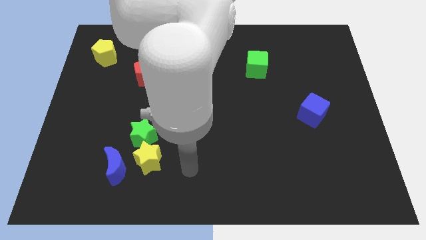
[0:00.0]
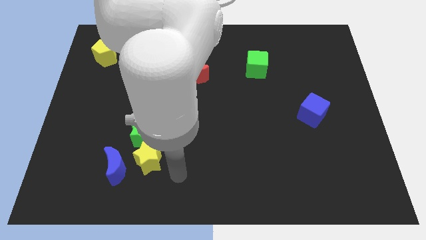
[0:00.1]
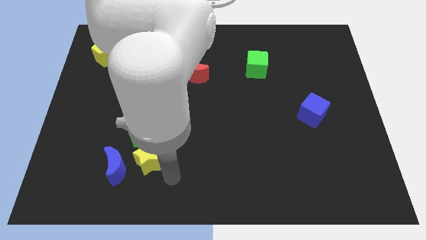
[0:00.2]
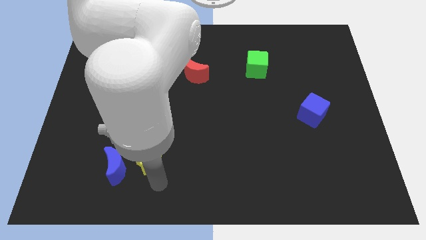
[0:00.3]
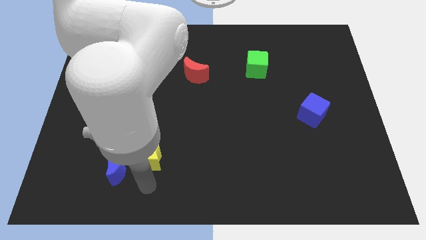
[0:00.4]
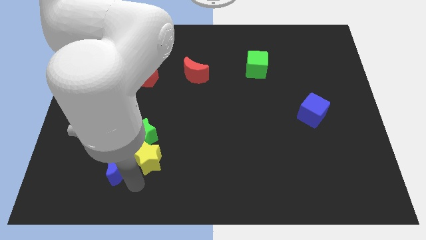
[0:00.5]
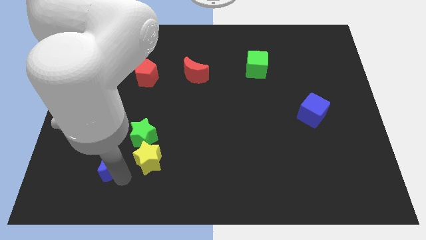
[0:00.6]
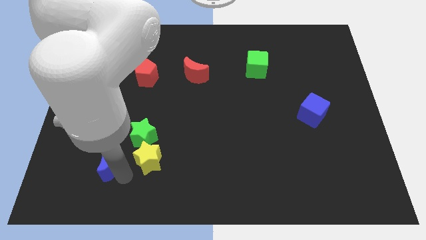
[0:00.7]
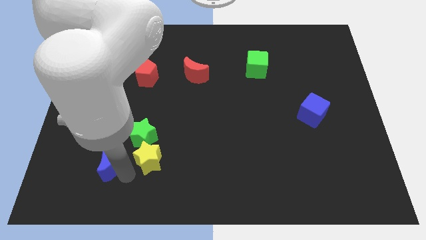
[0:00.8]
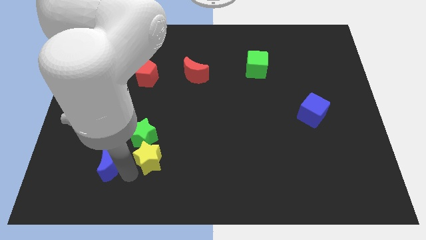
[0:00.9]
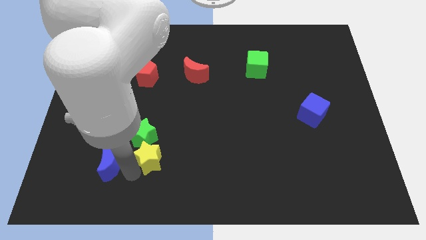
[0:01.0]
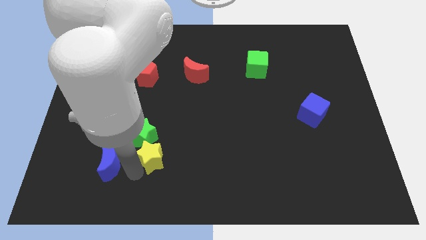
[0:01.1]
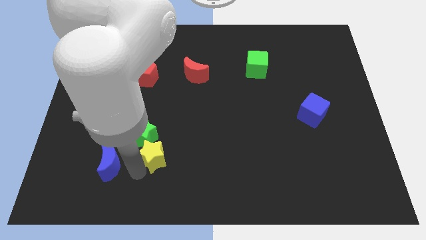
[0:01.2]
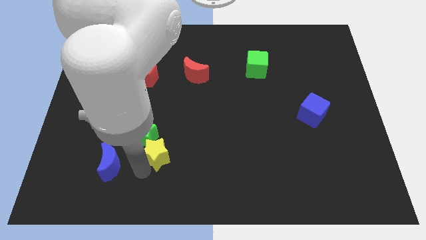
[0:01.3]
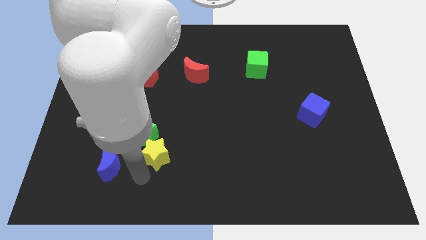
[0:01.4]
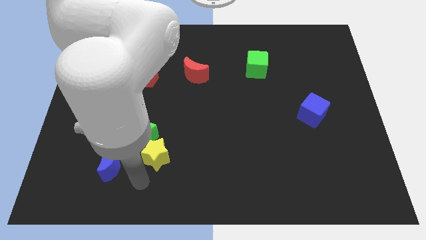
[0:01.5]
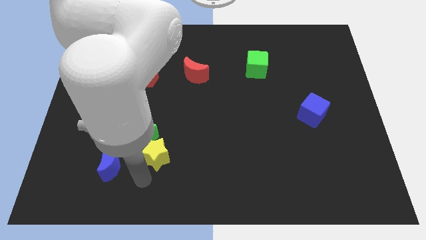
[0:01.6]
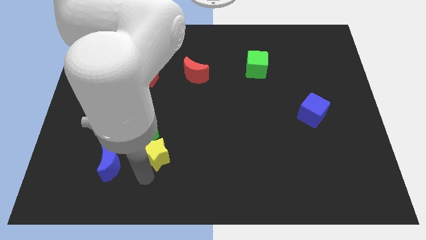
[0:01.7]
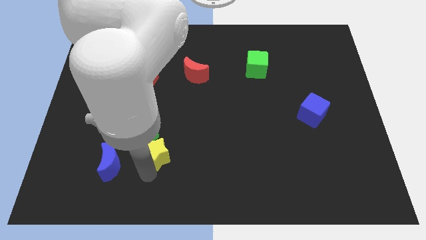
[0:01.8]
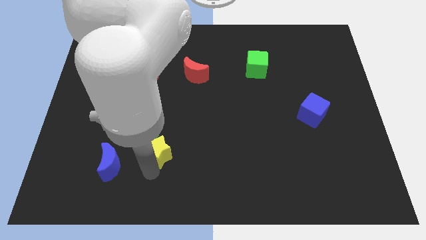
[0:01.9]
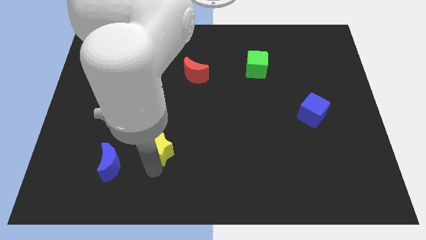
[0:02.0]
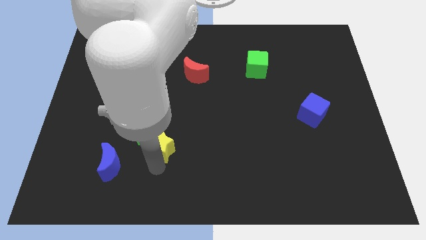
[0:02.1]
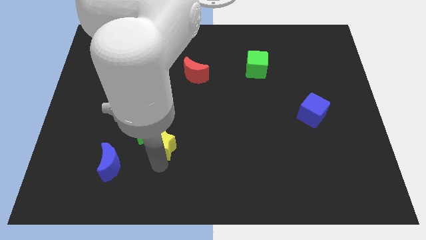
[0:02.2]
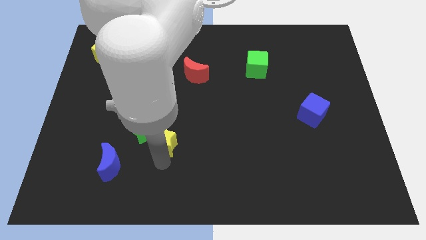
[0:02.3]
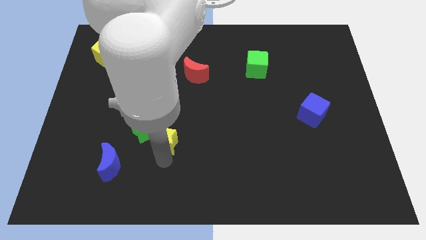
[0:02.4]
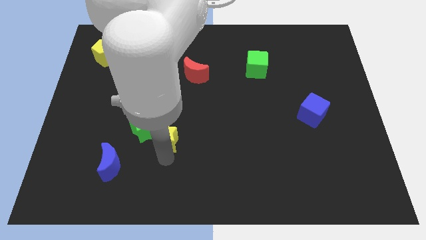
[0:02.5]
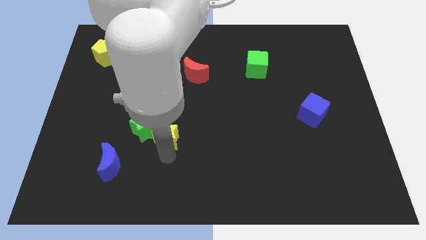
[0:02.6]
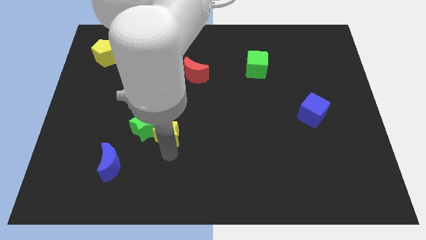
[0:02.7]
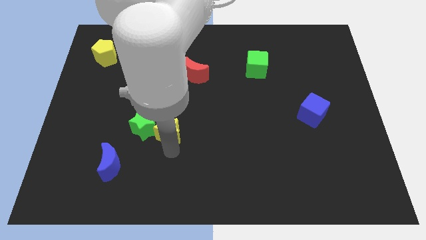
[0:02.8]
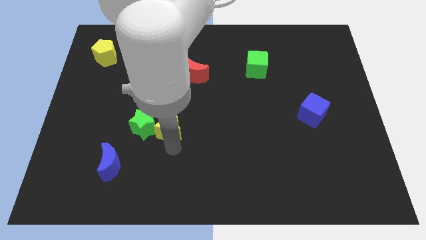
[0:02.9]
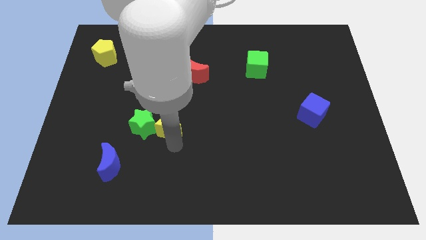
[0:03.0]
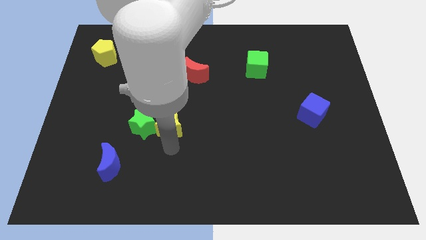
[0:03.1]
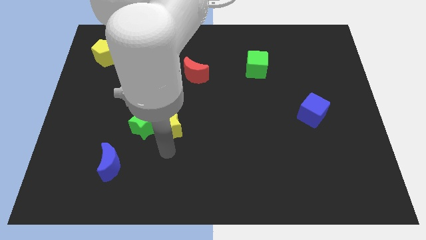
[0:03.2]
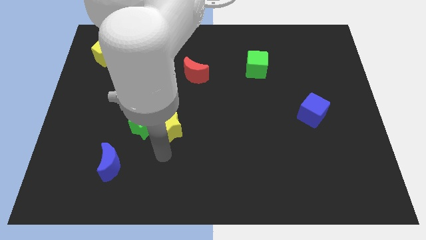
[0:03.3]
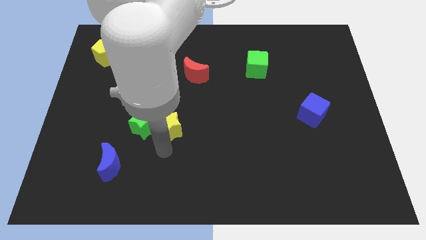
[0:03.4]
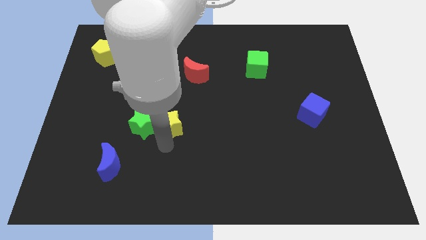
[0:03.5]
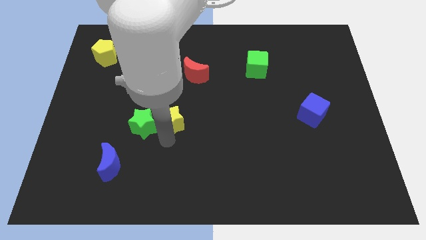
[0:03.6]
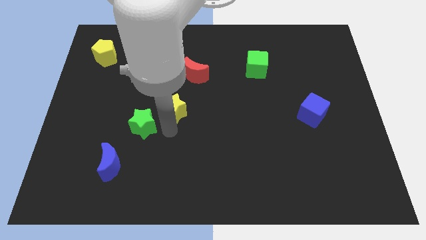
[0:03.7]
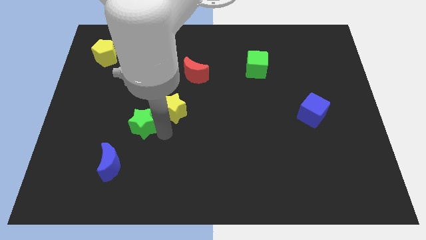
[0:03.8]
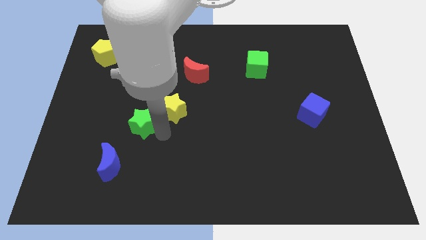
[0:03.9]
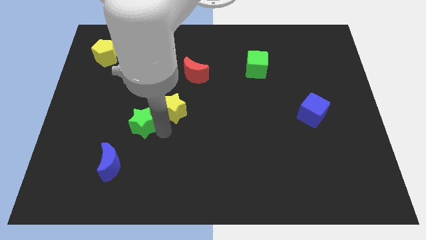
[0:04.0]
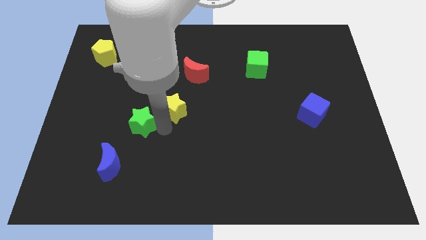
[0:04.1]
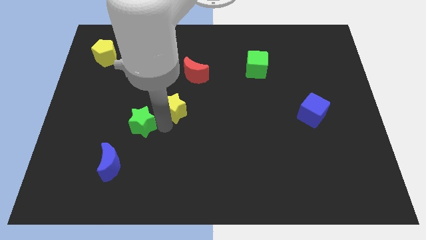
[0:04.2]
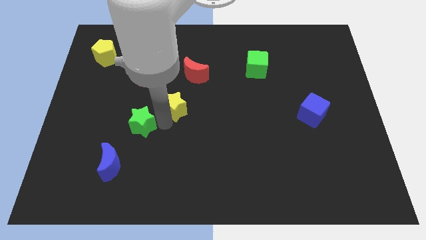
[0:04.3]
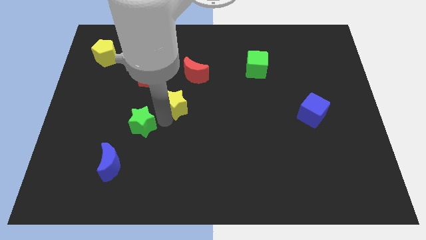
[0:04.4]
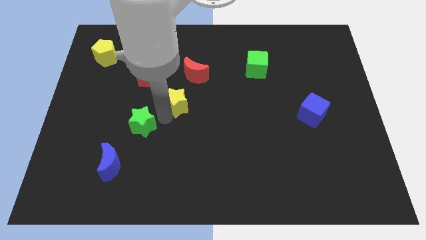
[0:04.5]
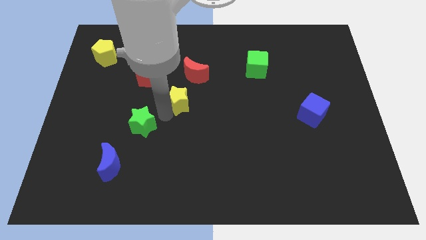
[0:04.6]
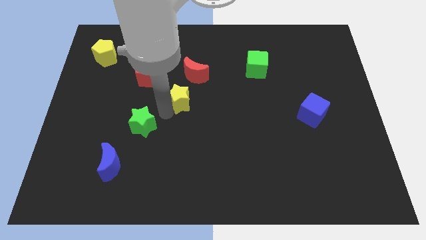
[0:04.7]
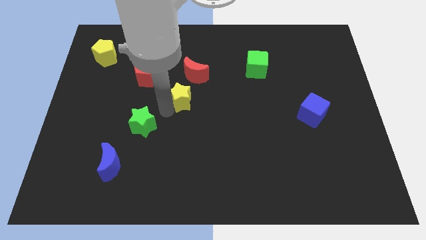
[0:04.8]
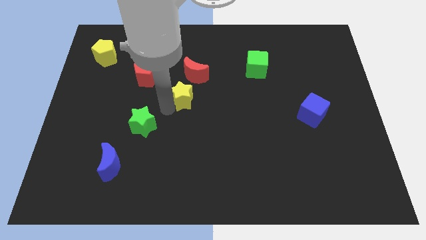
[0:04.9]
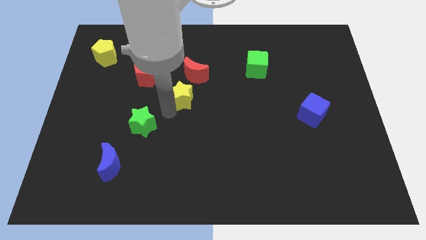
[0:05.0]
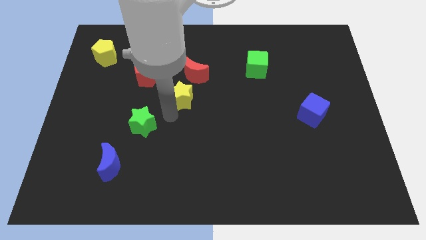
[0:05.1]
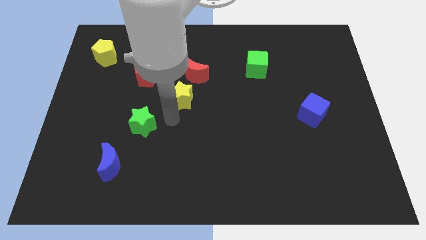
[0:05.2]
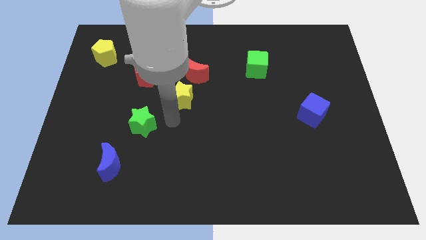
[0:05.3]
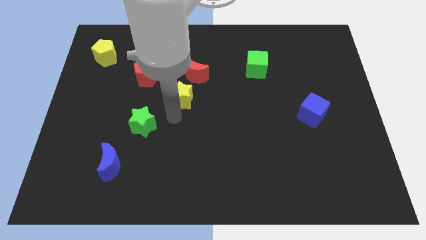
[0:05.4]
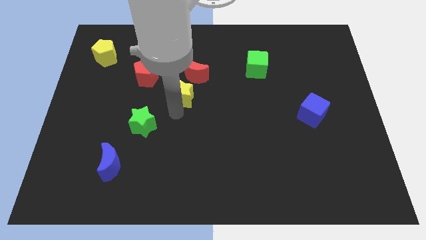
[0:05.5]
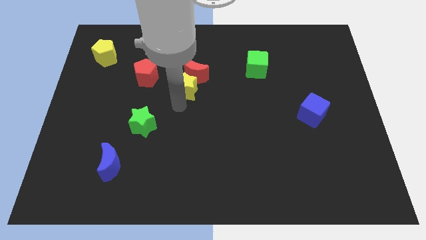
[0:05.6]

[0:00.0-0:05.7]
move the yellow star next to the red moon
